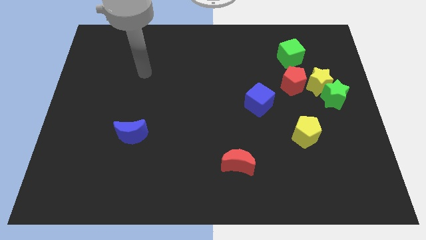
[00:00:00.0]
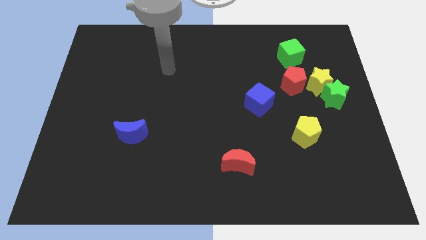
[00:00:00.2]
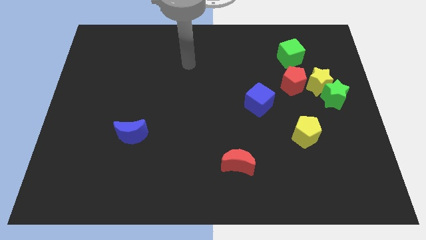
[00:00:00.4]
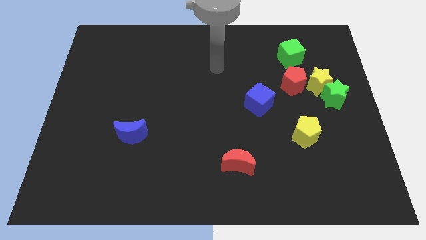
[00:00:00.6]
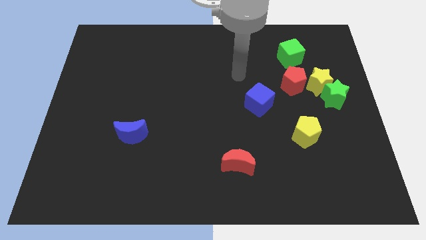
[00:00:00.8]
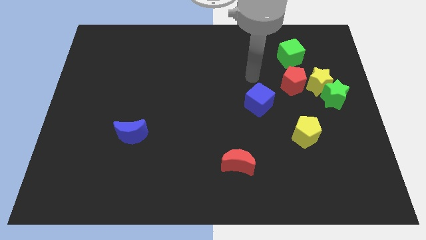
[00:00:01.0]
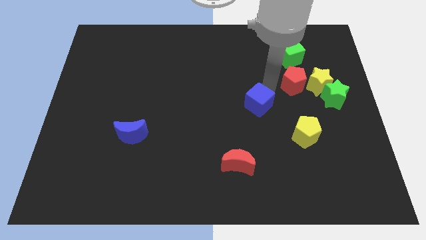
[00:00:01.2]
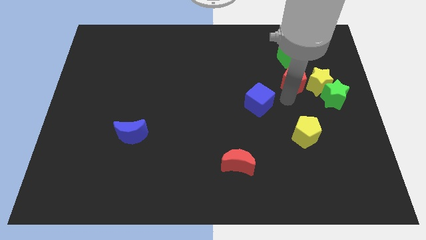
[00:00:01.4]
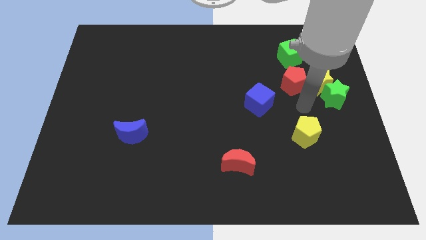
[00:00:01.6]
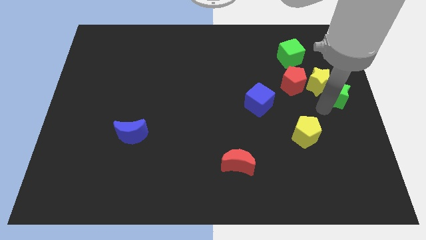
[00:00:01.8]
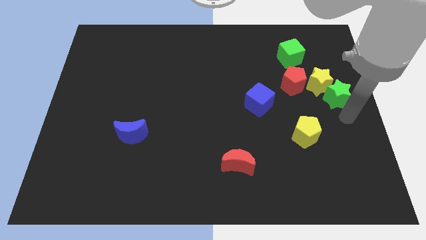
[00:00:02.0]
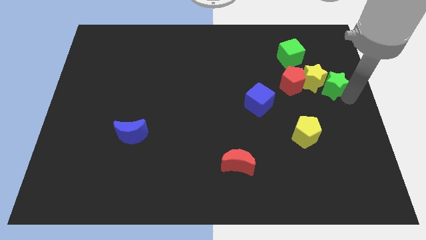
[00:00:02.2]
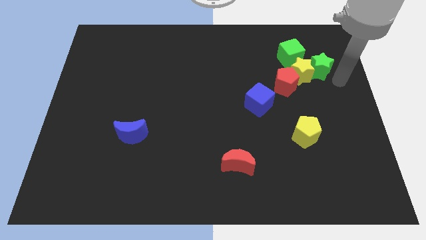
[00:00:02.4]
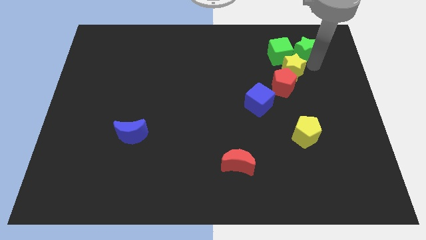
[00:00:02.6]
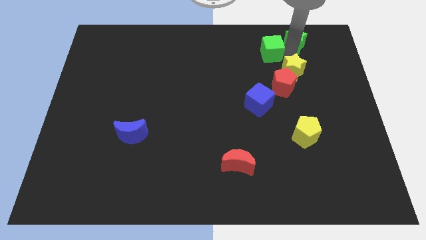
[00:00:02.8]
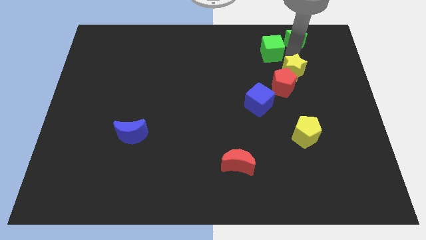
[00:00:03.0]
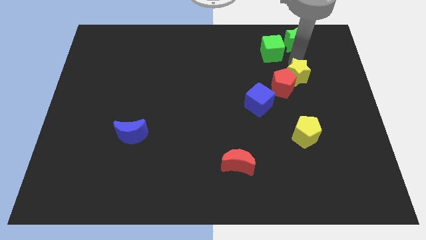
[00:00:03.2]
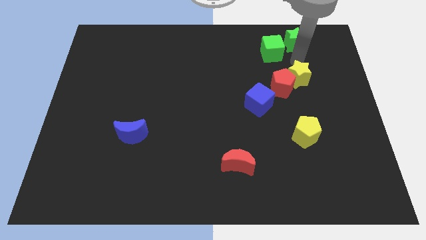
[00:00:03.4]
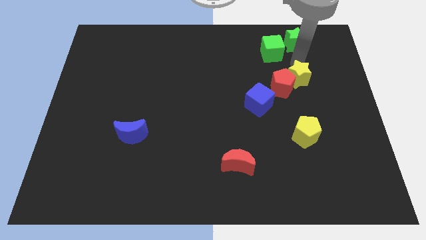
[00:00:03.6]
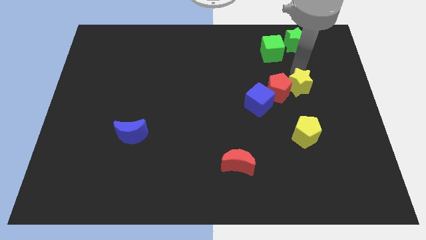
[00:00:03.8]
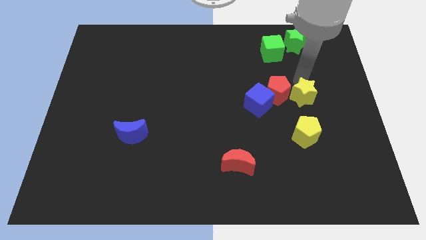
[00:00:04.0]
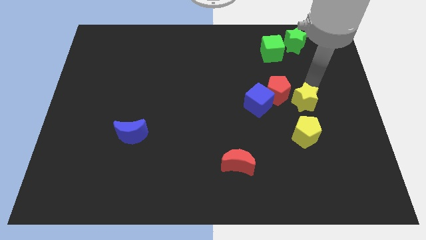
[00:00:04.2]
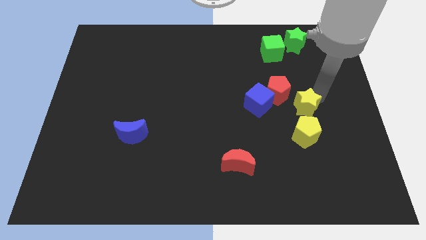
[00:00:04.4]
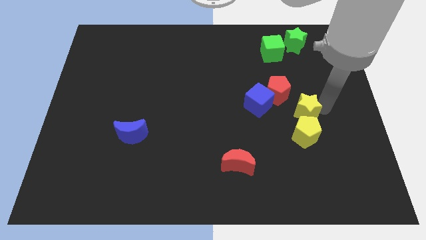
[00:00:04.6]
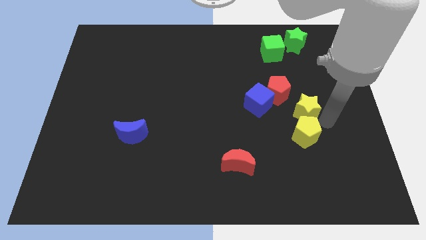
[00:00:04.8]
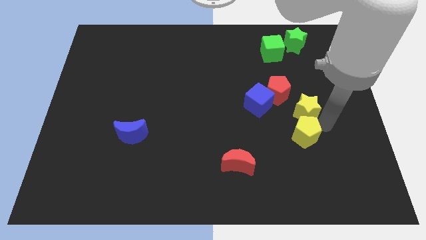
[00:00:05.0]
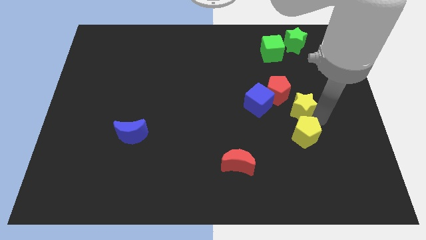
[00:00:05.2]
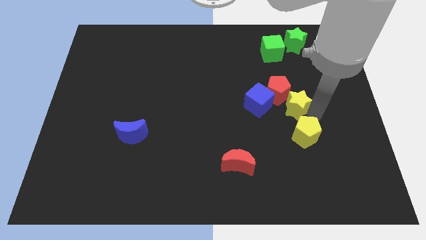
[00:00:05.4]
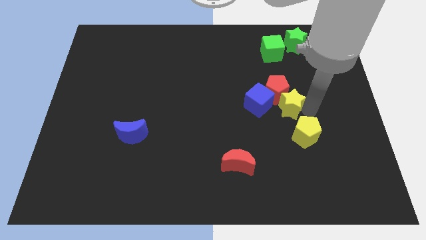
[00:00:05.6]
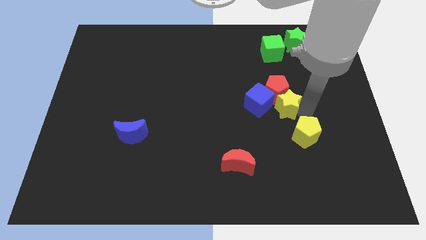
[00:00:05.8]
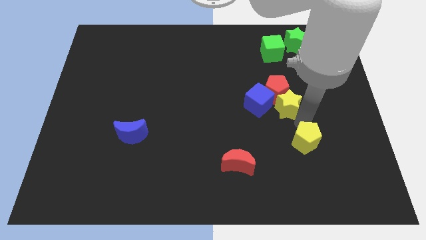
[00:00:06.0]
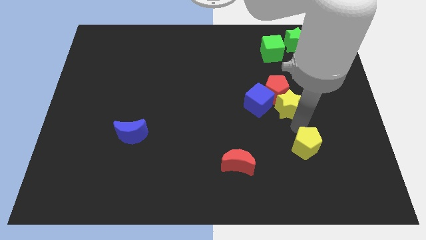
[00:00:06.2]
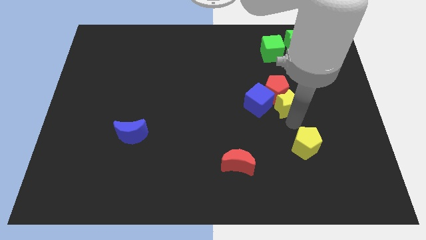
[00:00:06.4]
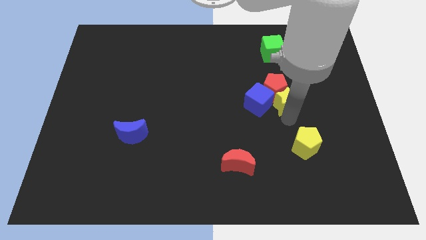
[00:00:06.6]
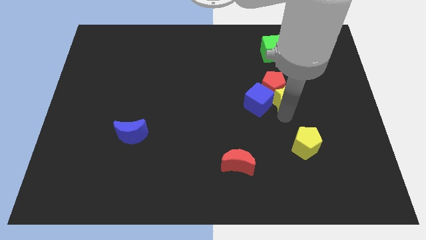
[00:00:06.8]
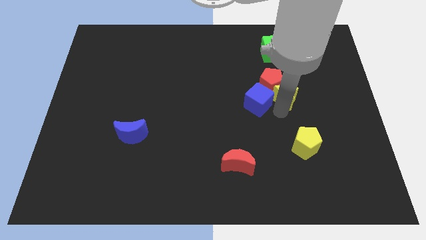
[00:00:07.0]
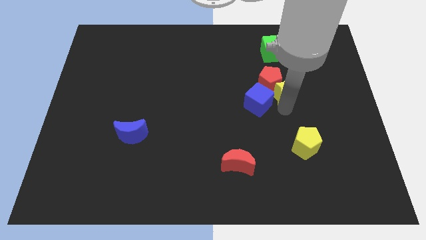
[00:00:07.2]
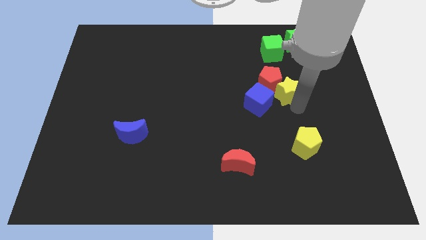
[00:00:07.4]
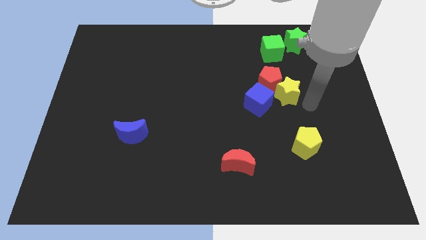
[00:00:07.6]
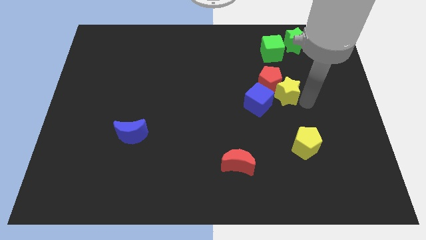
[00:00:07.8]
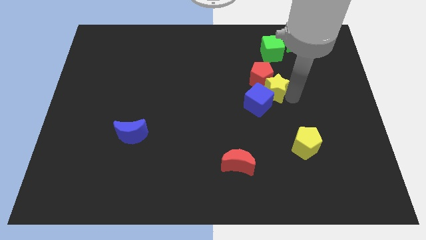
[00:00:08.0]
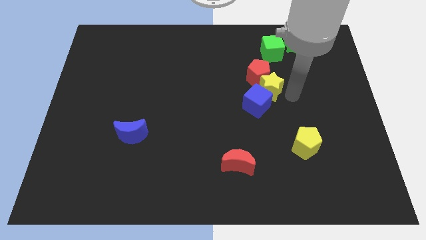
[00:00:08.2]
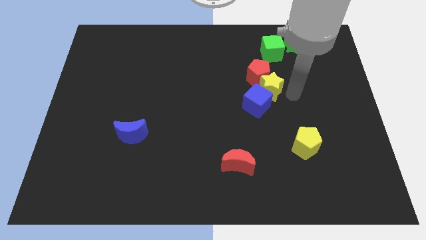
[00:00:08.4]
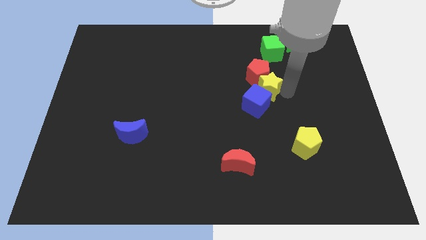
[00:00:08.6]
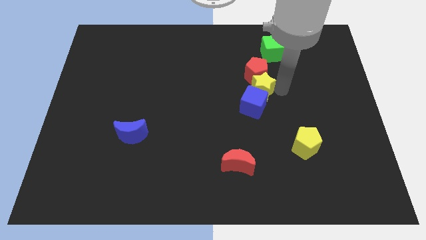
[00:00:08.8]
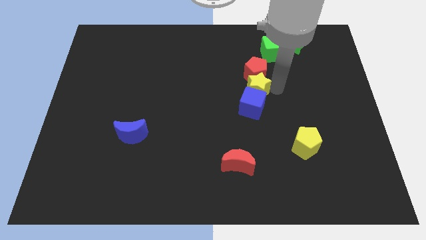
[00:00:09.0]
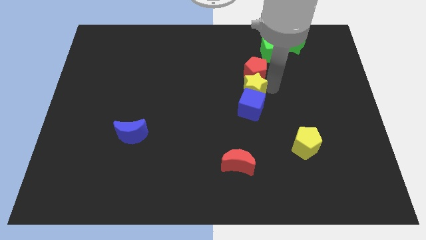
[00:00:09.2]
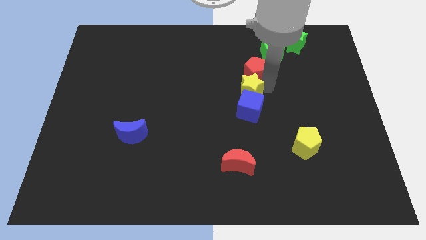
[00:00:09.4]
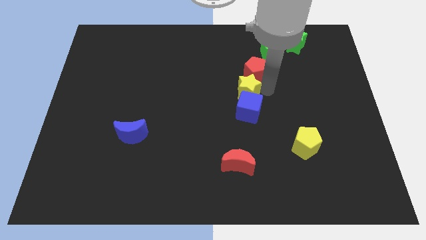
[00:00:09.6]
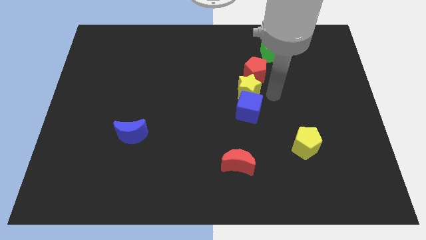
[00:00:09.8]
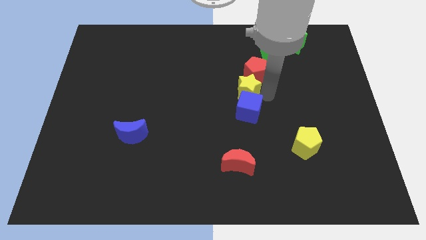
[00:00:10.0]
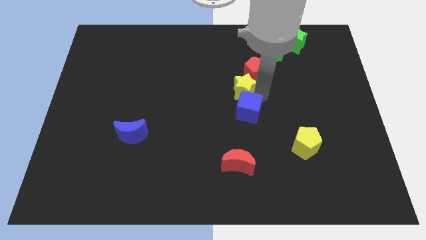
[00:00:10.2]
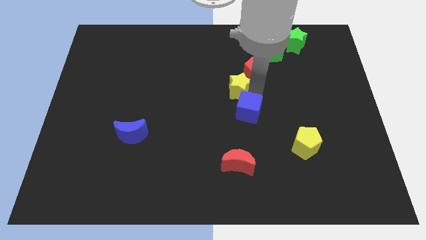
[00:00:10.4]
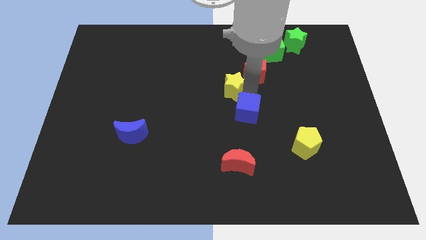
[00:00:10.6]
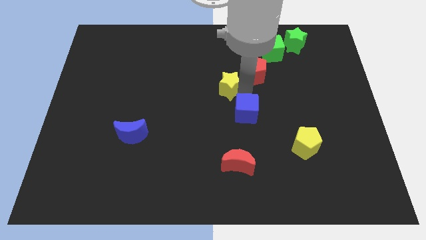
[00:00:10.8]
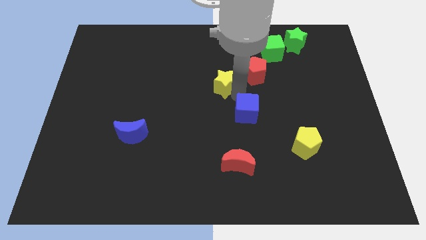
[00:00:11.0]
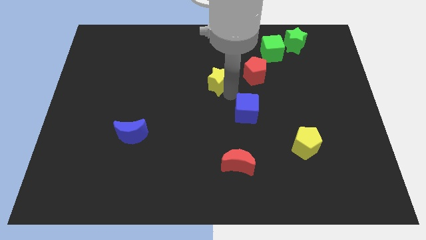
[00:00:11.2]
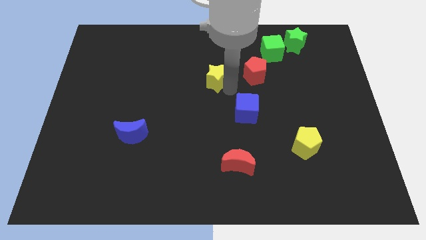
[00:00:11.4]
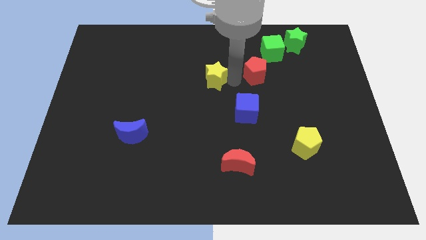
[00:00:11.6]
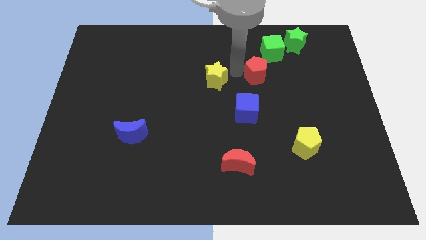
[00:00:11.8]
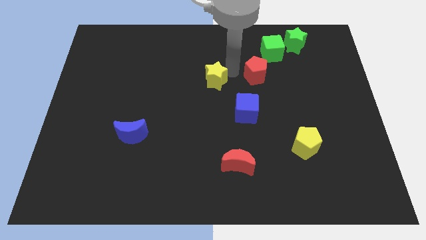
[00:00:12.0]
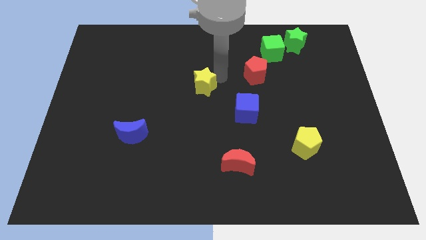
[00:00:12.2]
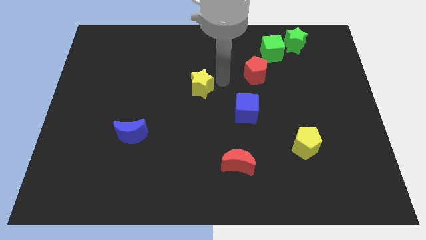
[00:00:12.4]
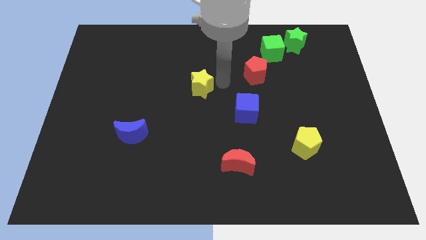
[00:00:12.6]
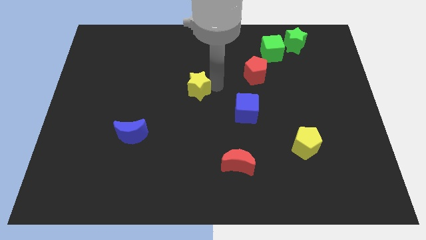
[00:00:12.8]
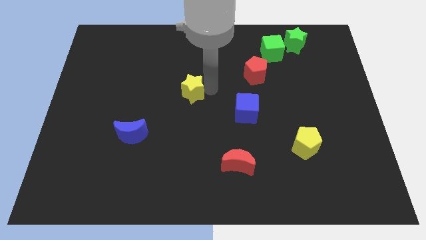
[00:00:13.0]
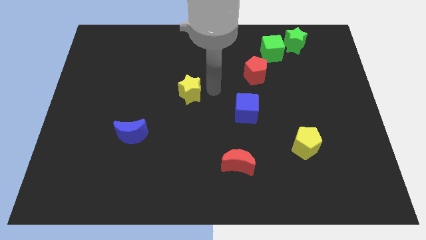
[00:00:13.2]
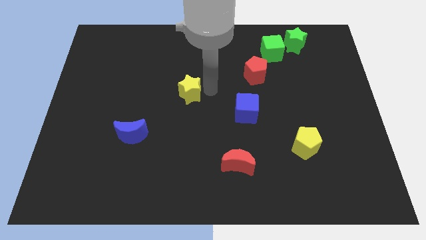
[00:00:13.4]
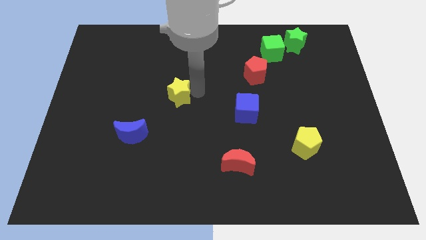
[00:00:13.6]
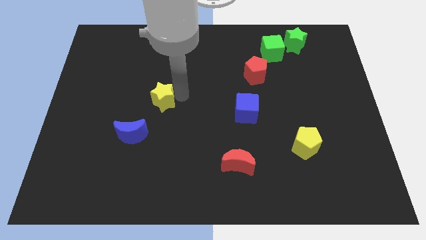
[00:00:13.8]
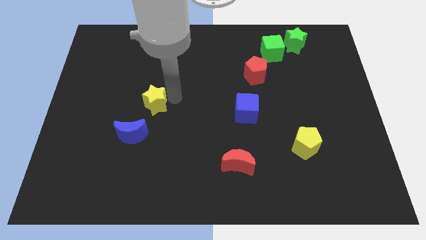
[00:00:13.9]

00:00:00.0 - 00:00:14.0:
push the yellow star to the top of the blue moon
